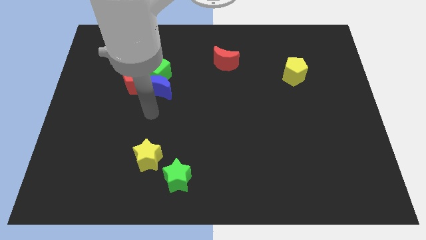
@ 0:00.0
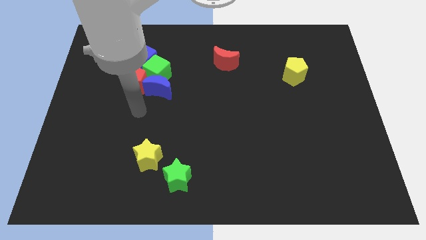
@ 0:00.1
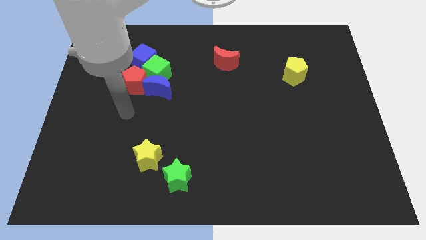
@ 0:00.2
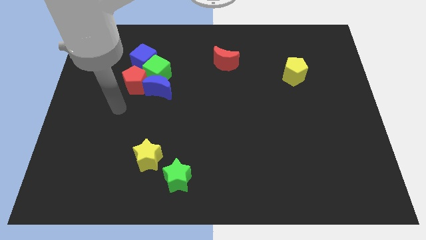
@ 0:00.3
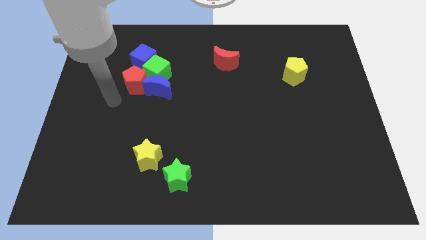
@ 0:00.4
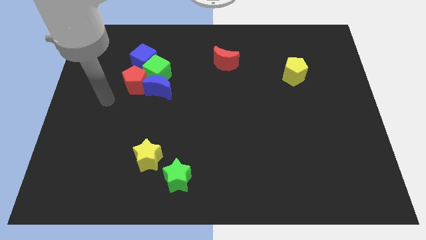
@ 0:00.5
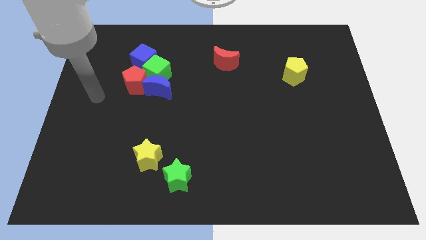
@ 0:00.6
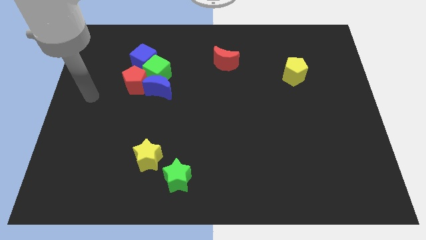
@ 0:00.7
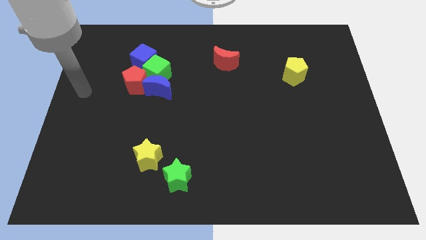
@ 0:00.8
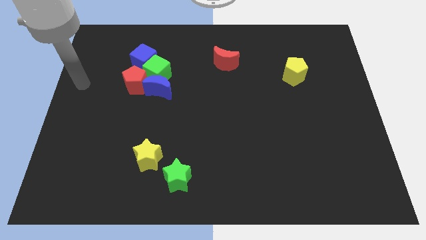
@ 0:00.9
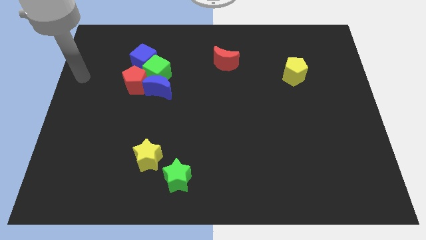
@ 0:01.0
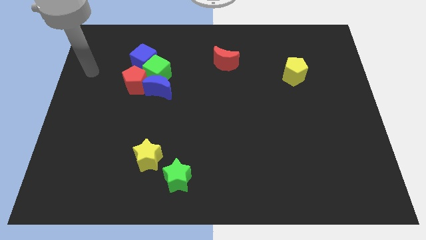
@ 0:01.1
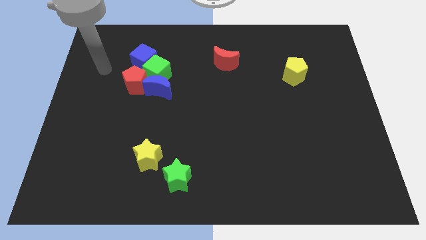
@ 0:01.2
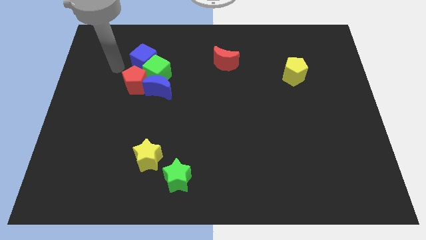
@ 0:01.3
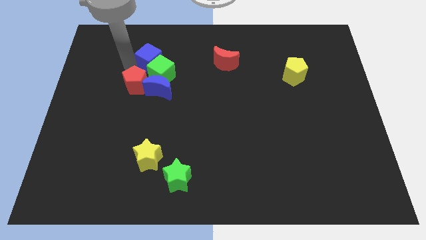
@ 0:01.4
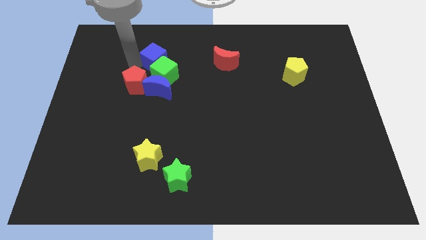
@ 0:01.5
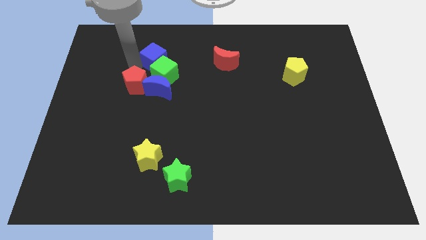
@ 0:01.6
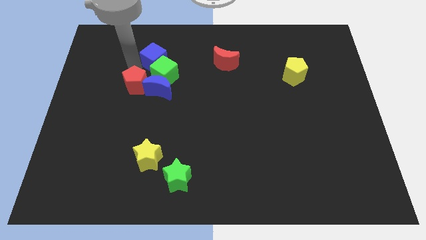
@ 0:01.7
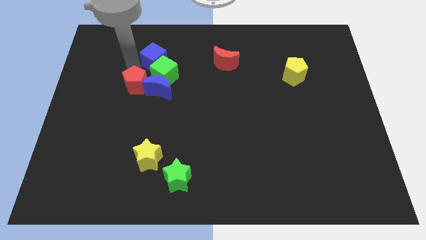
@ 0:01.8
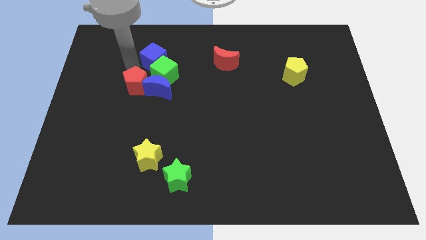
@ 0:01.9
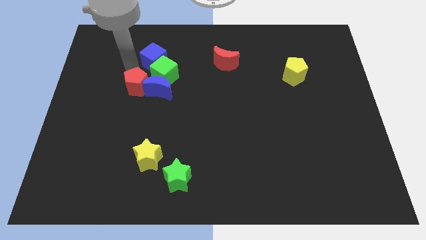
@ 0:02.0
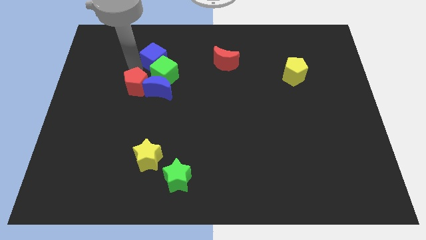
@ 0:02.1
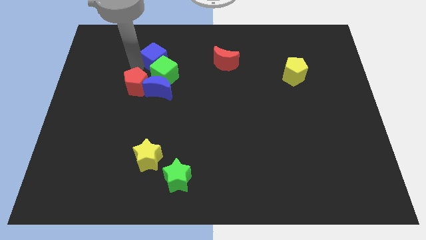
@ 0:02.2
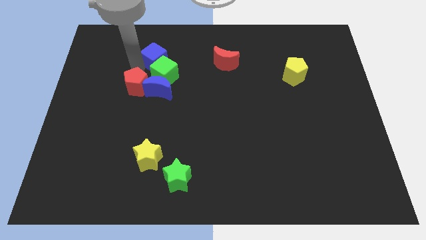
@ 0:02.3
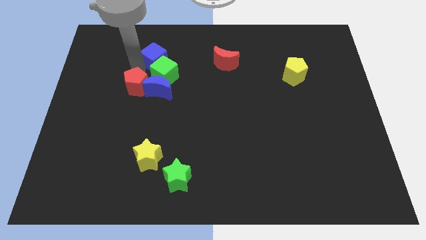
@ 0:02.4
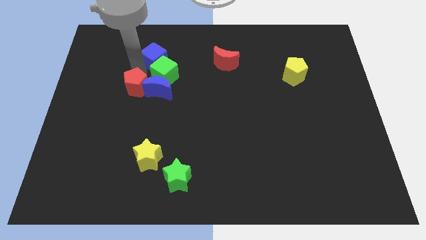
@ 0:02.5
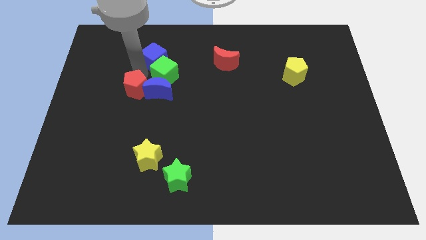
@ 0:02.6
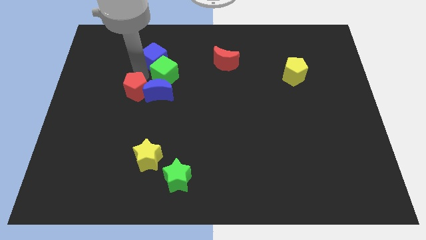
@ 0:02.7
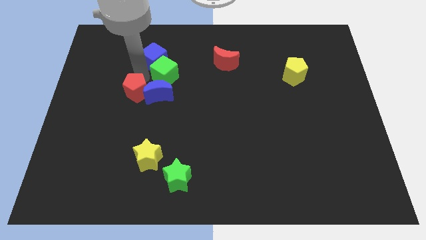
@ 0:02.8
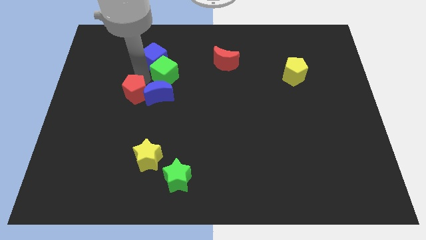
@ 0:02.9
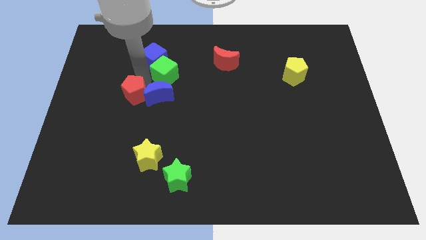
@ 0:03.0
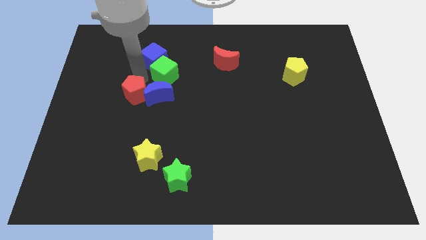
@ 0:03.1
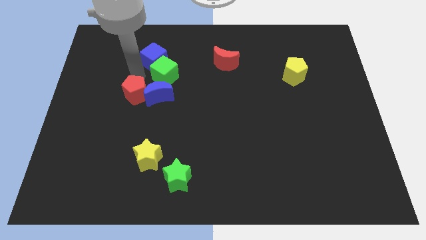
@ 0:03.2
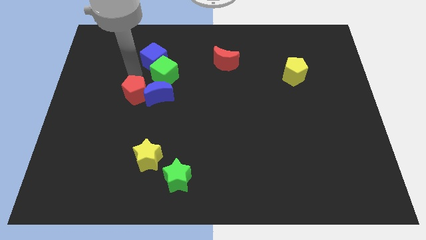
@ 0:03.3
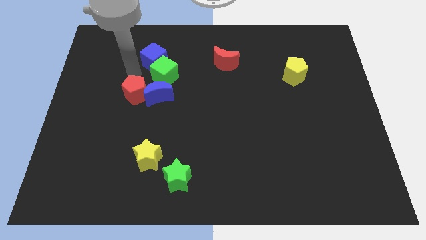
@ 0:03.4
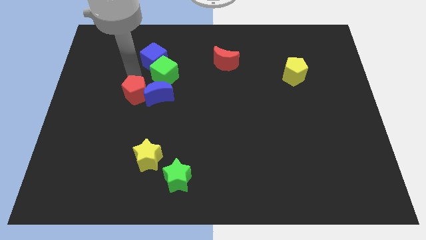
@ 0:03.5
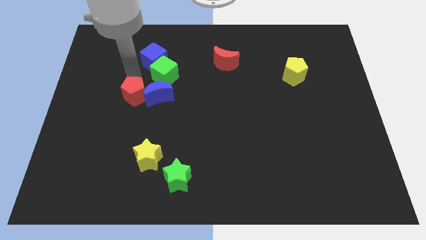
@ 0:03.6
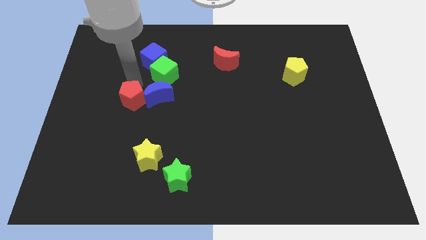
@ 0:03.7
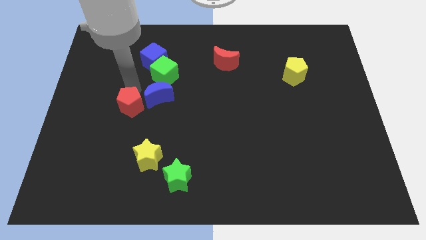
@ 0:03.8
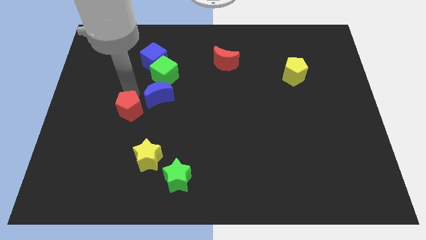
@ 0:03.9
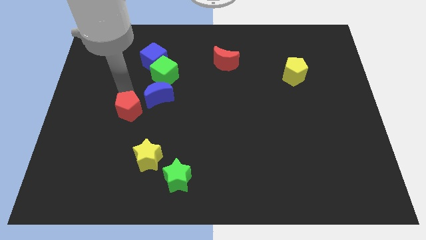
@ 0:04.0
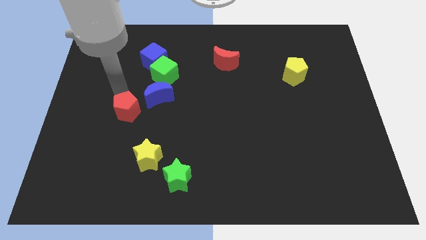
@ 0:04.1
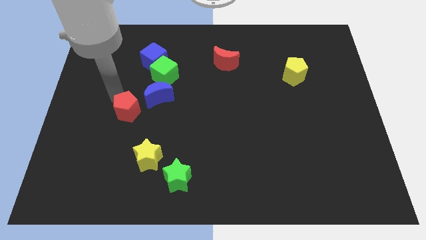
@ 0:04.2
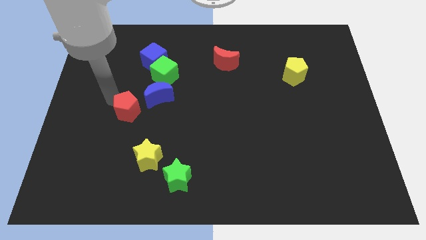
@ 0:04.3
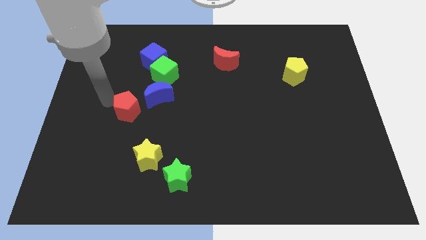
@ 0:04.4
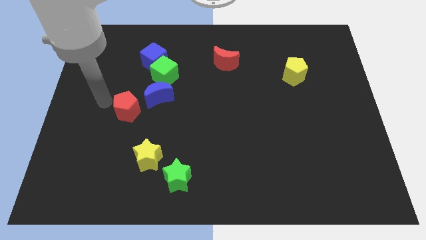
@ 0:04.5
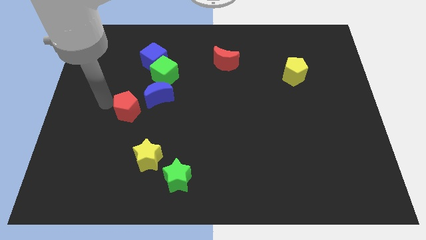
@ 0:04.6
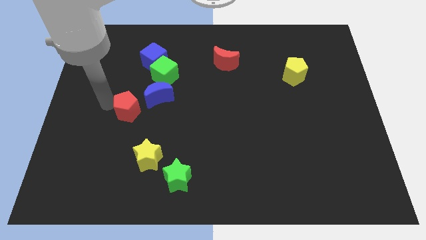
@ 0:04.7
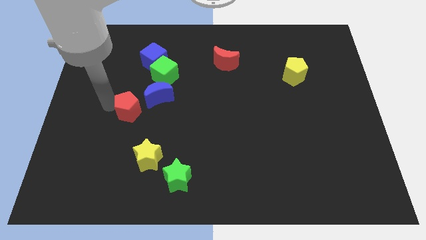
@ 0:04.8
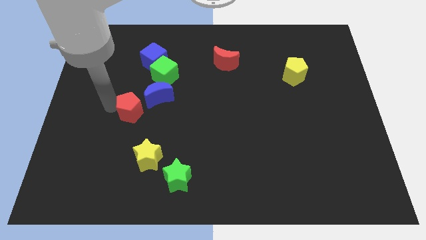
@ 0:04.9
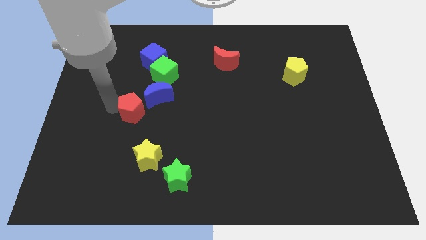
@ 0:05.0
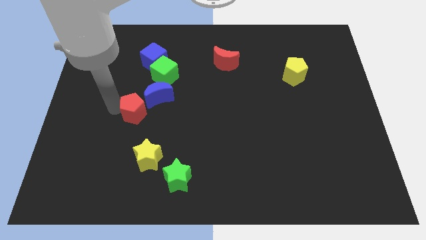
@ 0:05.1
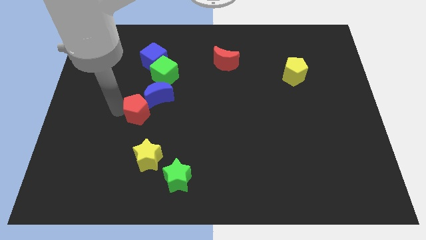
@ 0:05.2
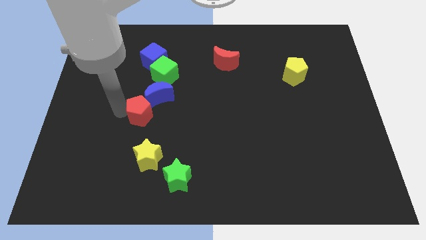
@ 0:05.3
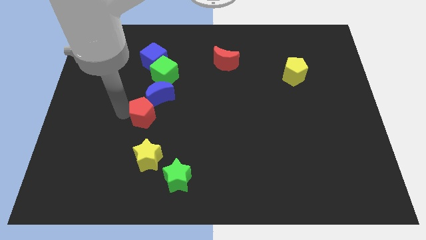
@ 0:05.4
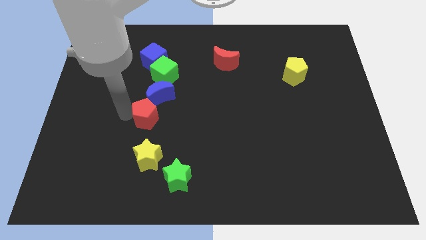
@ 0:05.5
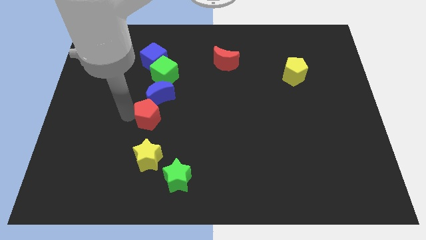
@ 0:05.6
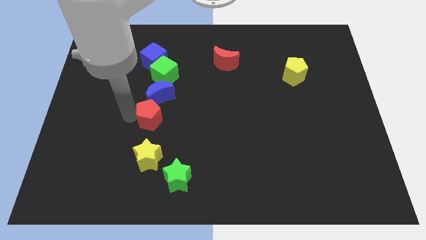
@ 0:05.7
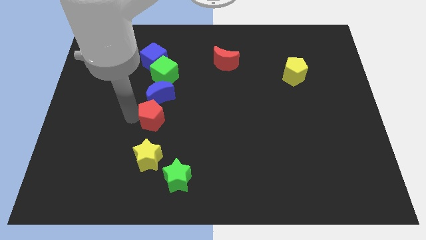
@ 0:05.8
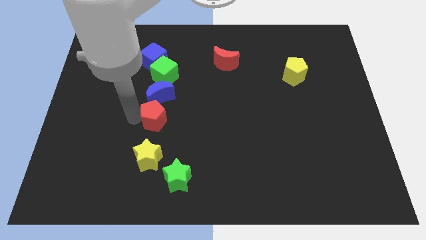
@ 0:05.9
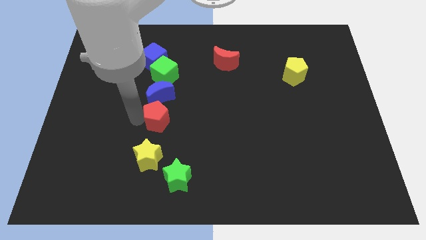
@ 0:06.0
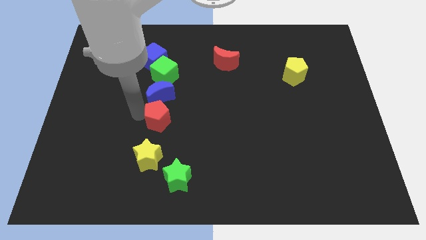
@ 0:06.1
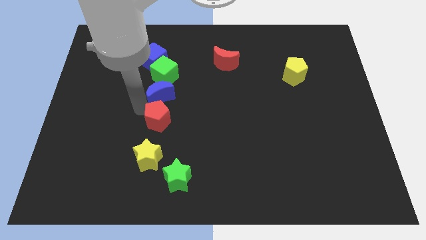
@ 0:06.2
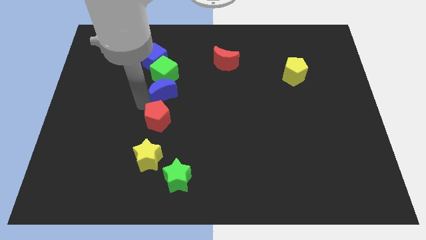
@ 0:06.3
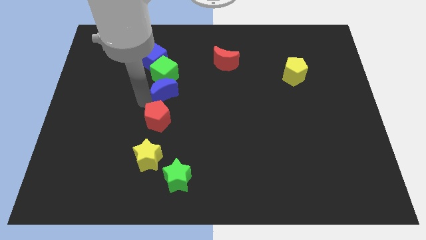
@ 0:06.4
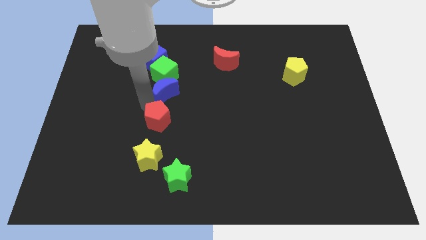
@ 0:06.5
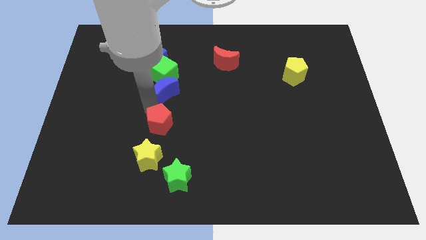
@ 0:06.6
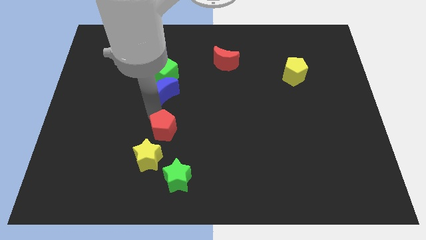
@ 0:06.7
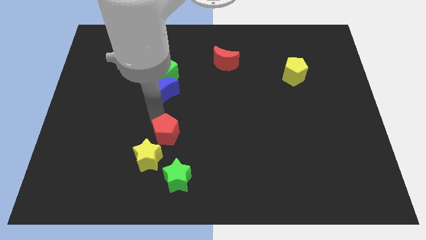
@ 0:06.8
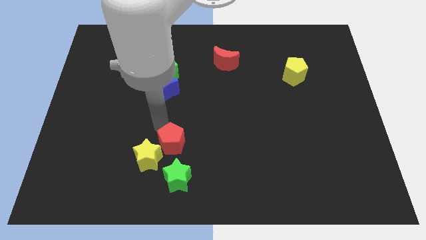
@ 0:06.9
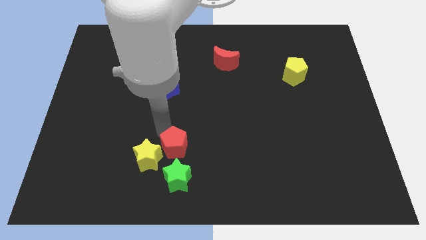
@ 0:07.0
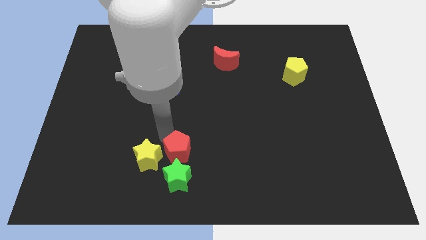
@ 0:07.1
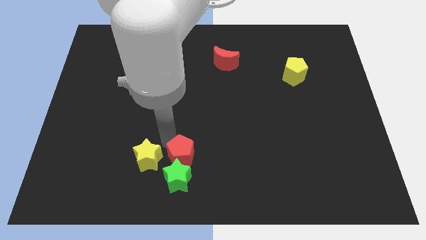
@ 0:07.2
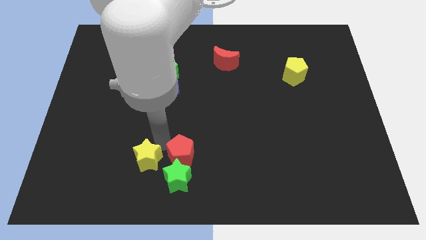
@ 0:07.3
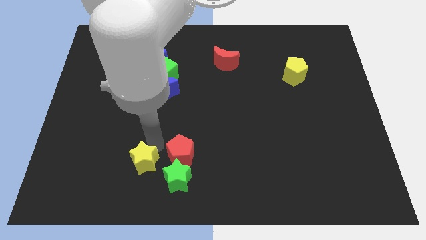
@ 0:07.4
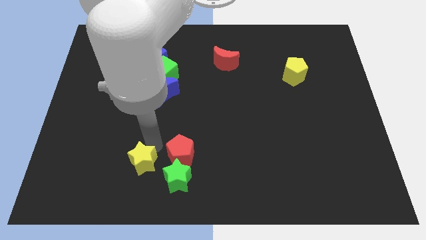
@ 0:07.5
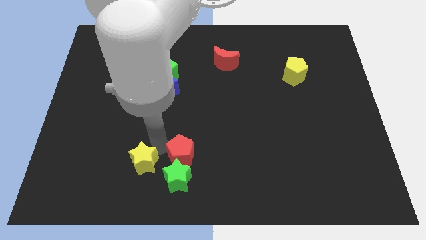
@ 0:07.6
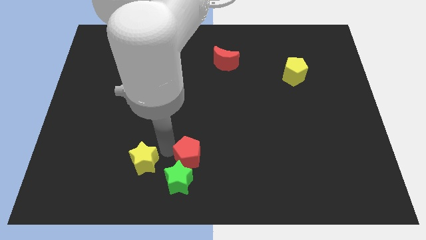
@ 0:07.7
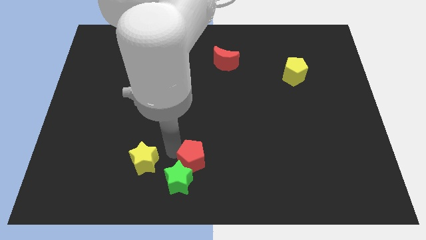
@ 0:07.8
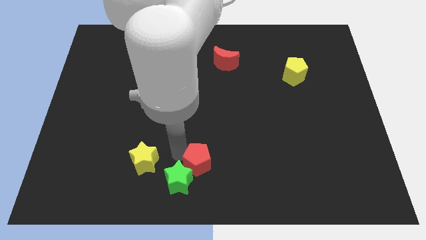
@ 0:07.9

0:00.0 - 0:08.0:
push the red pentagon right of the green star

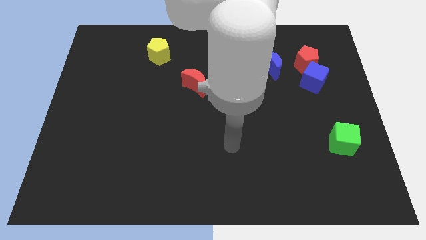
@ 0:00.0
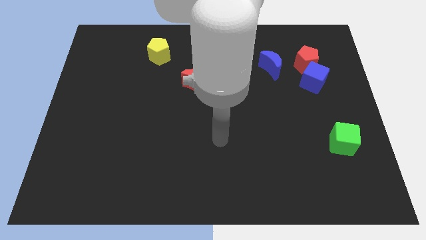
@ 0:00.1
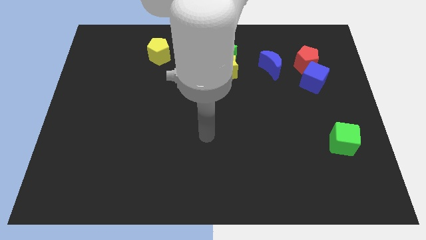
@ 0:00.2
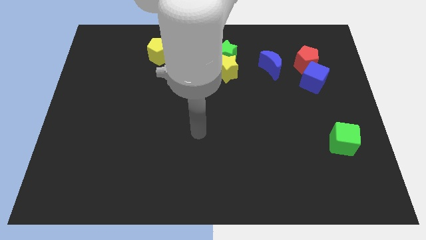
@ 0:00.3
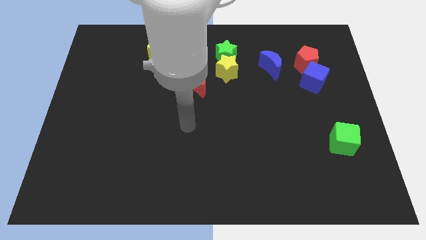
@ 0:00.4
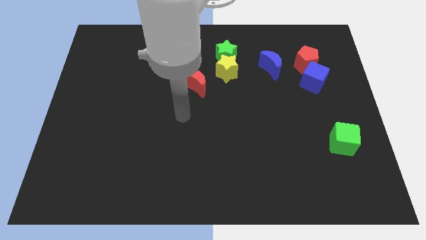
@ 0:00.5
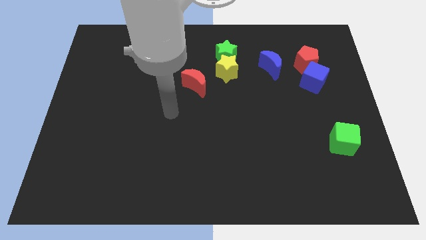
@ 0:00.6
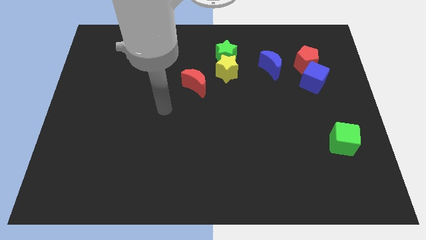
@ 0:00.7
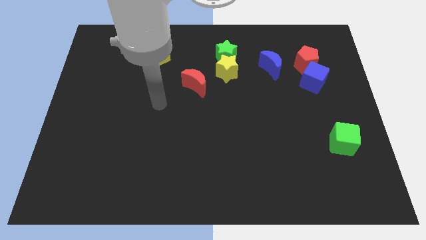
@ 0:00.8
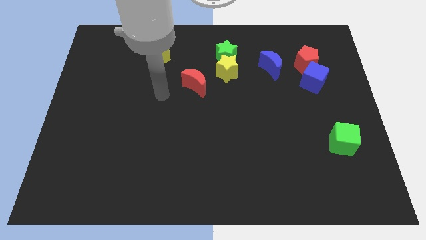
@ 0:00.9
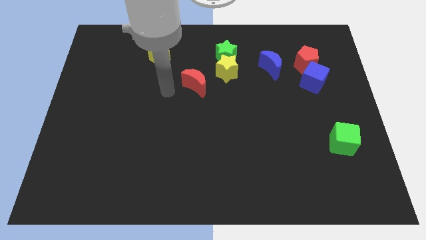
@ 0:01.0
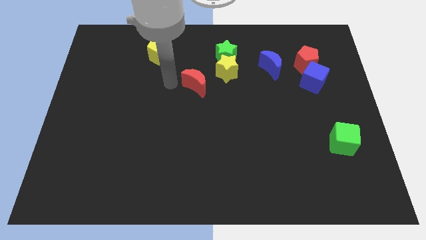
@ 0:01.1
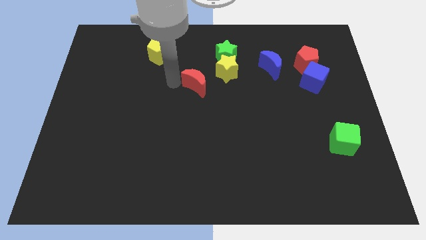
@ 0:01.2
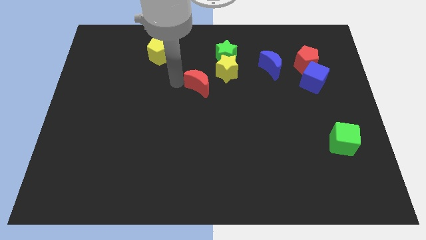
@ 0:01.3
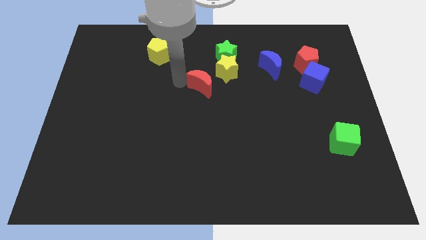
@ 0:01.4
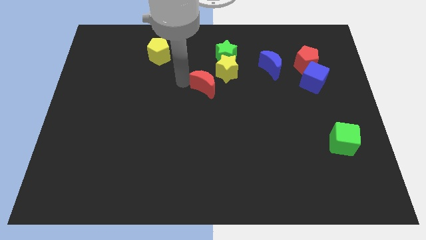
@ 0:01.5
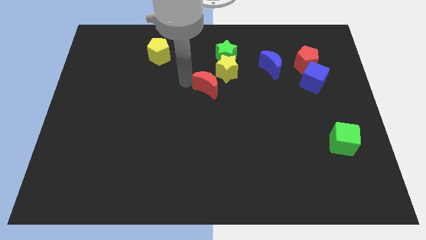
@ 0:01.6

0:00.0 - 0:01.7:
slide the red moon below the green star
